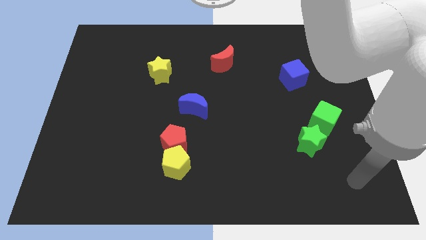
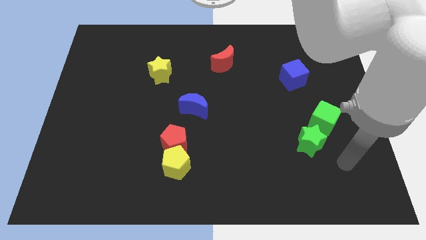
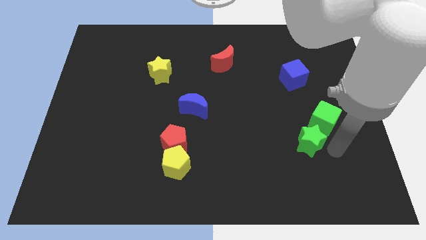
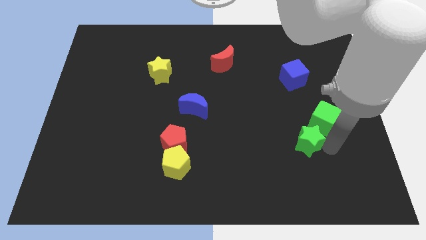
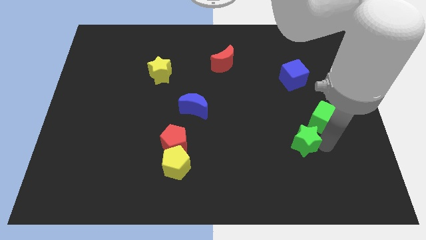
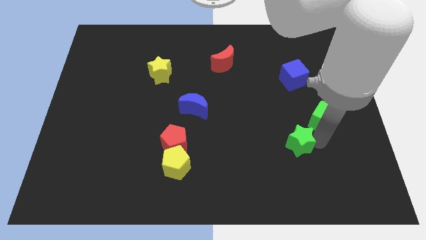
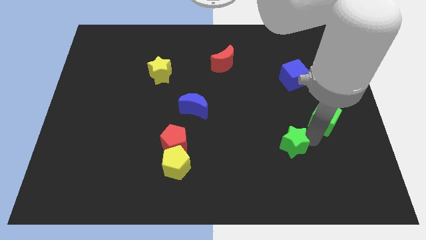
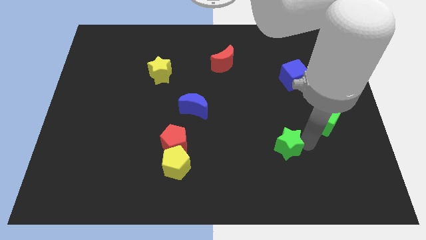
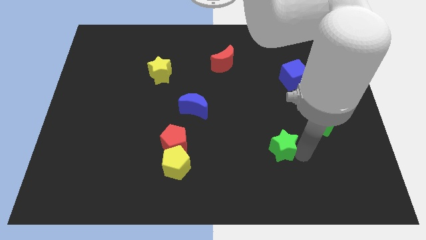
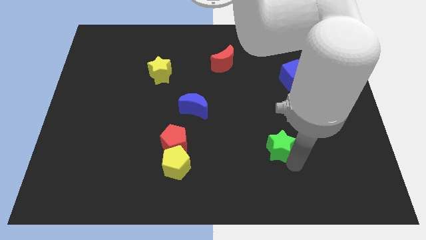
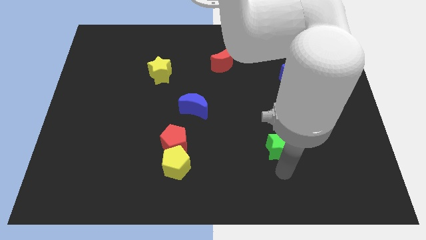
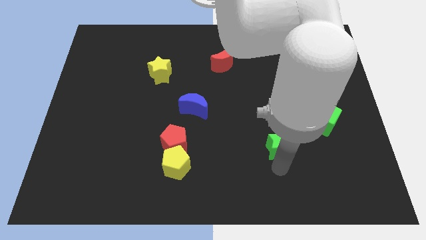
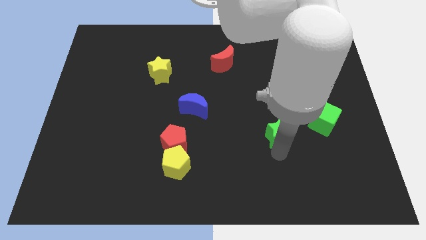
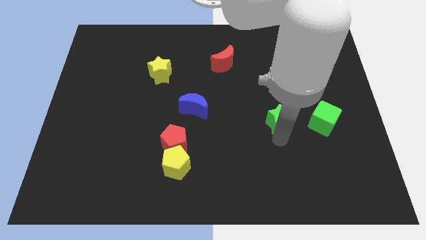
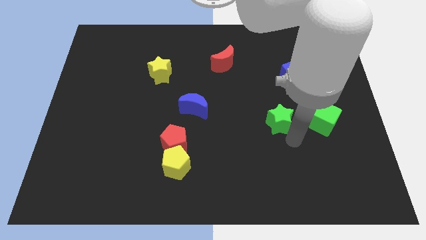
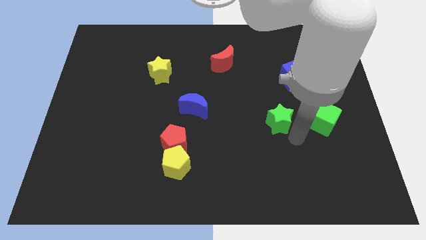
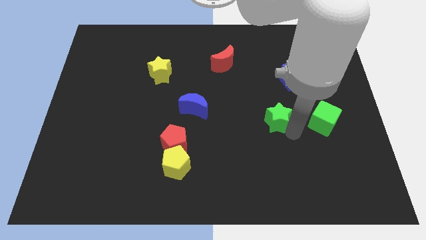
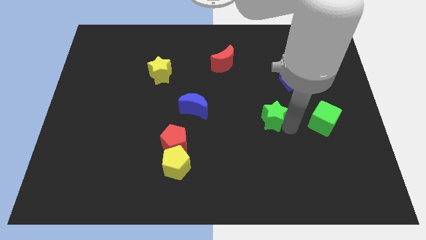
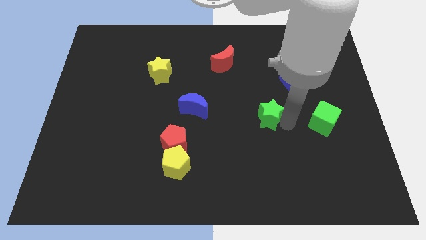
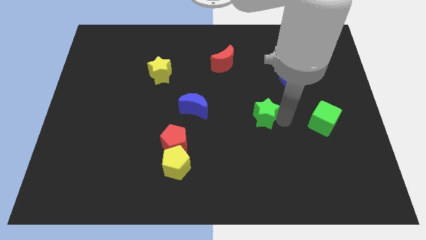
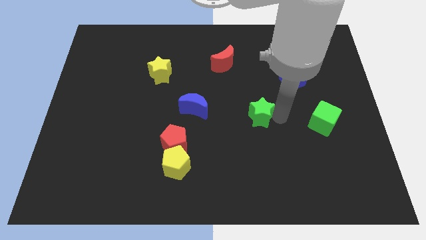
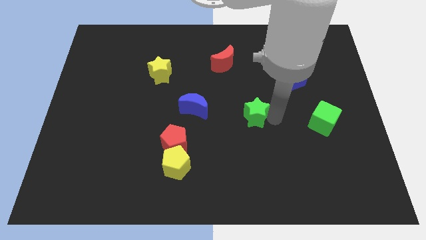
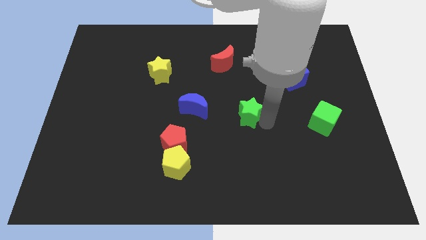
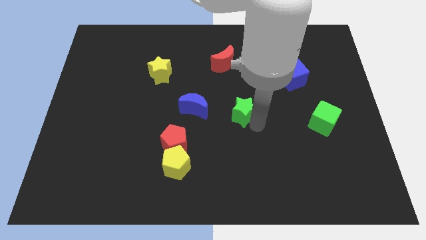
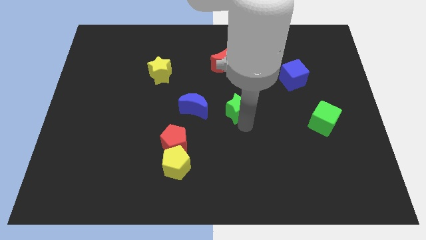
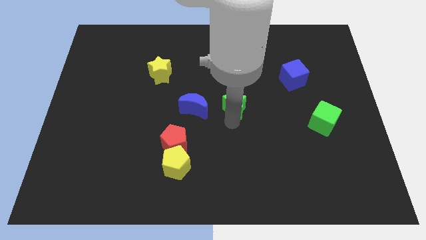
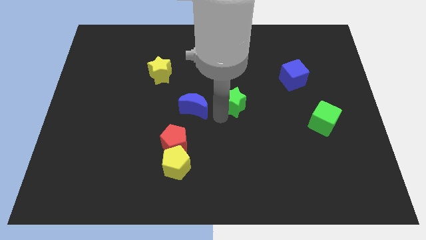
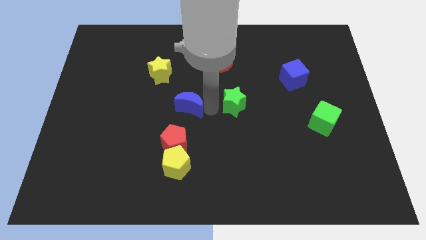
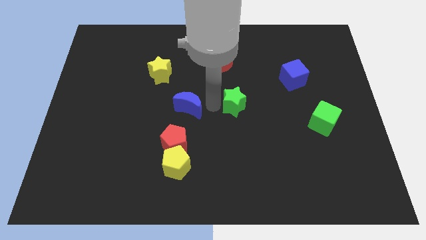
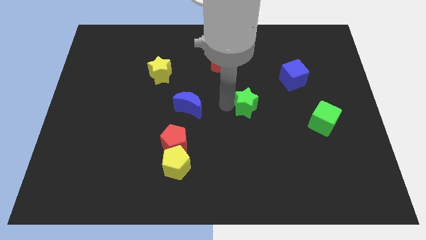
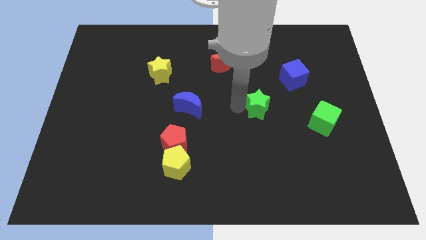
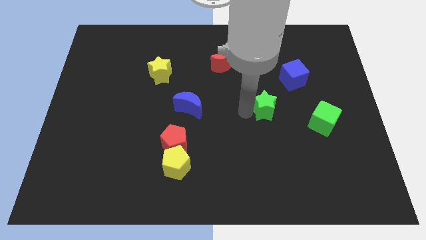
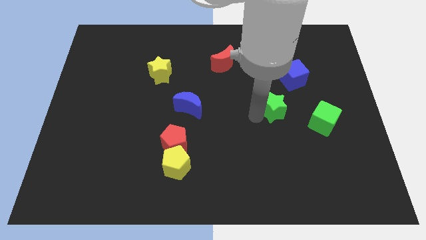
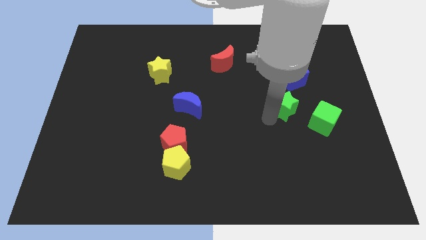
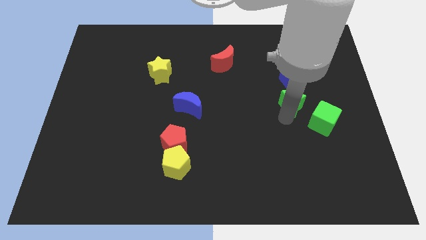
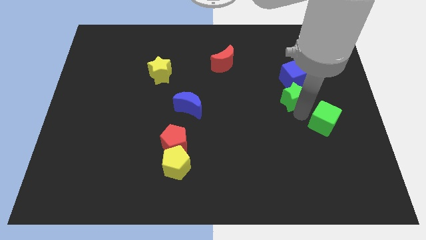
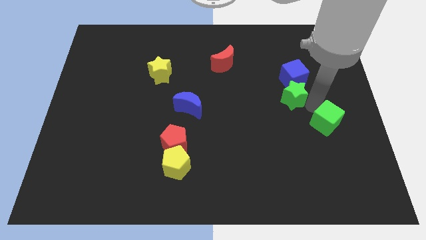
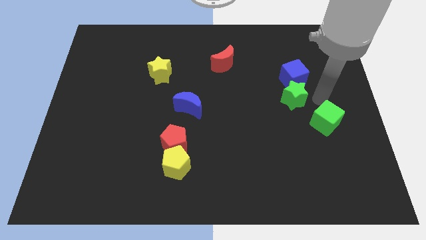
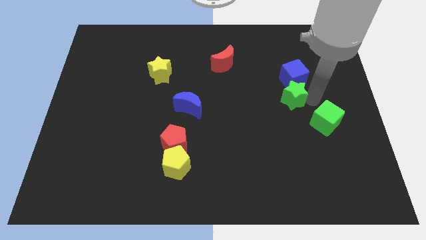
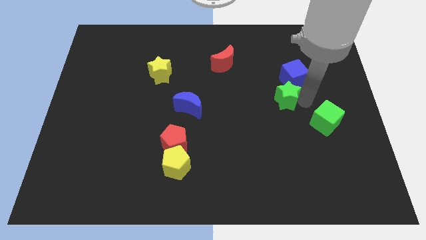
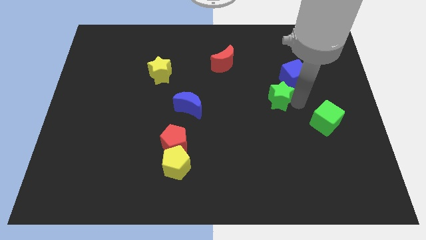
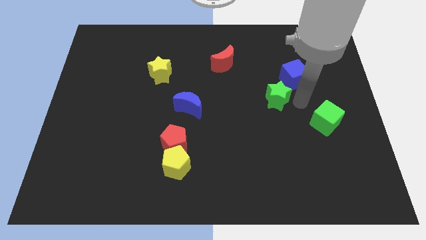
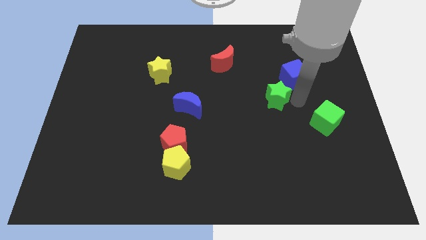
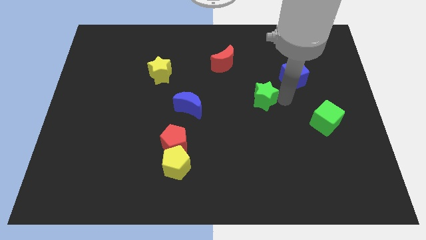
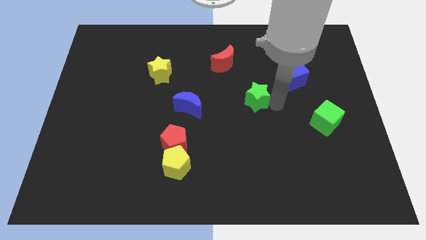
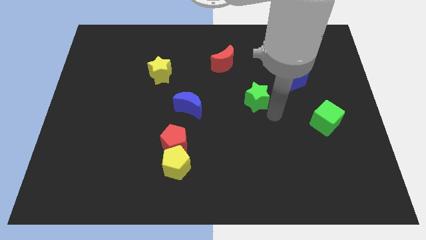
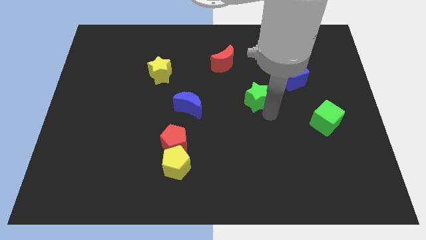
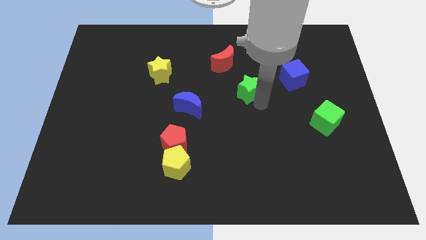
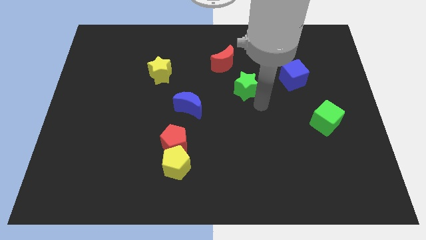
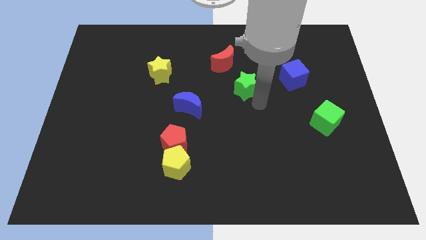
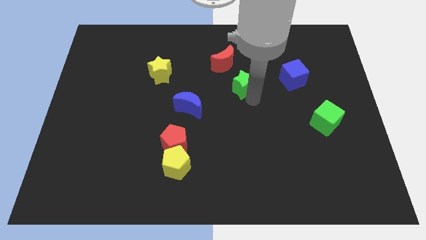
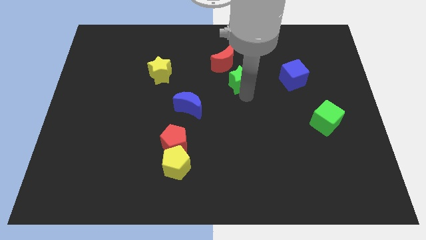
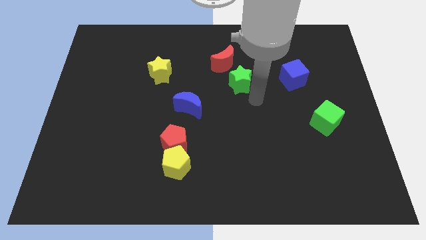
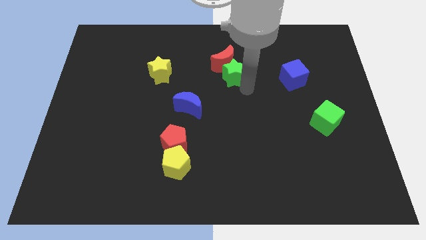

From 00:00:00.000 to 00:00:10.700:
push the green star to the red moon

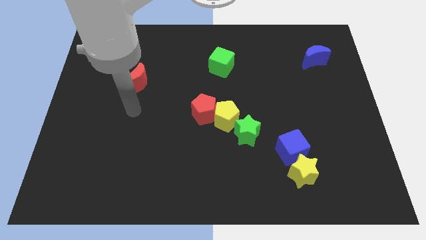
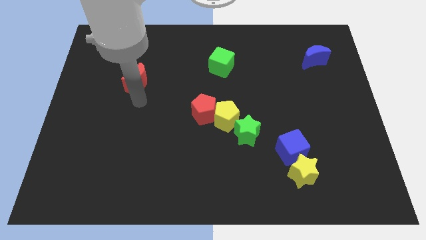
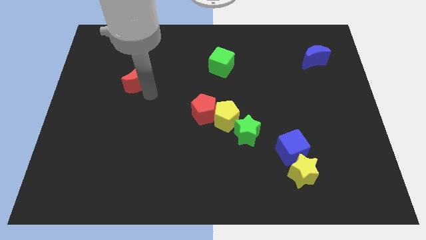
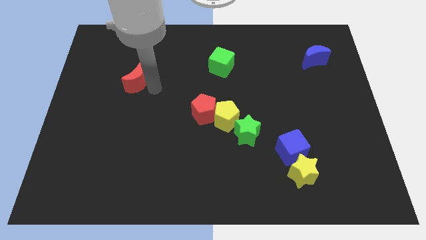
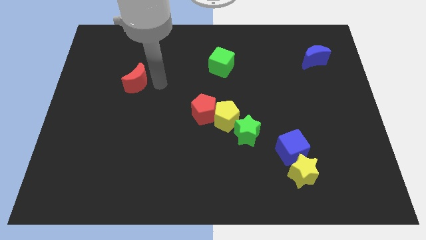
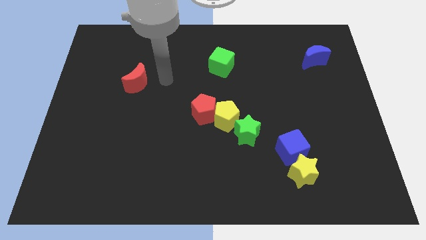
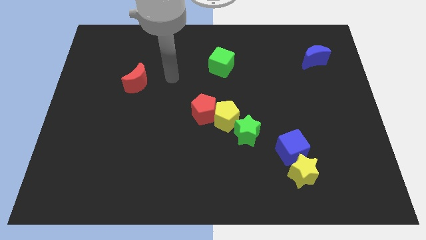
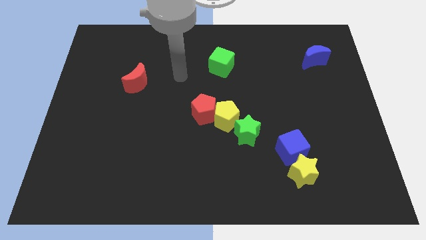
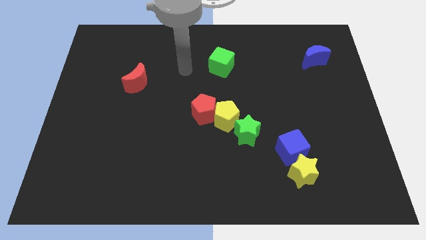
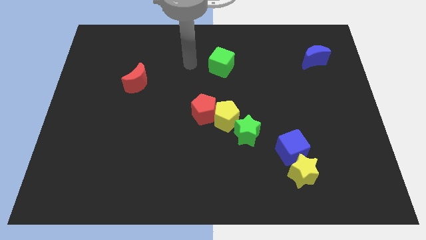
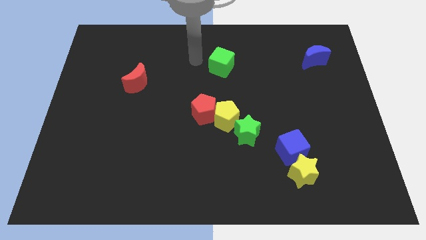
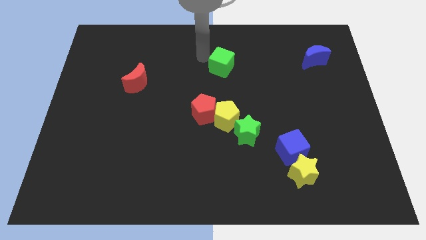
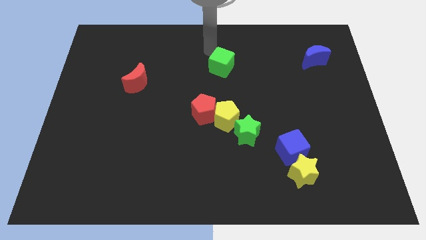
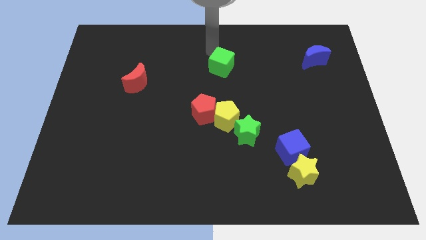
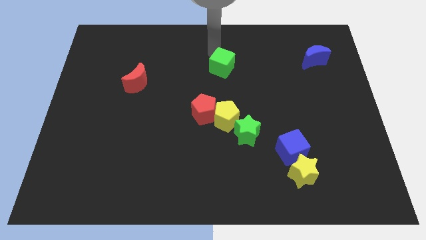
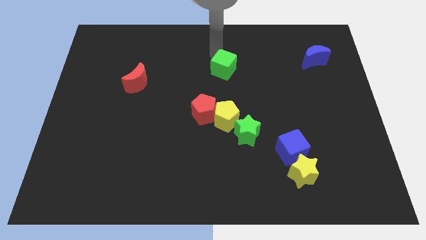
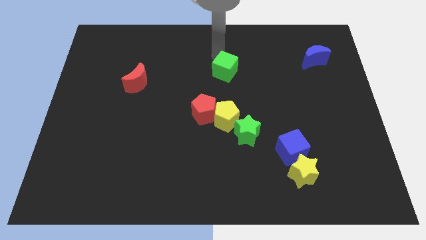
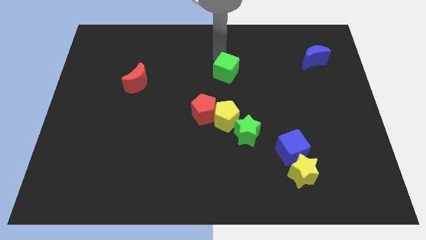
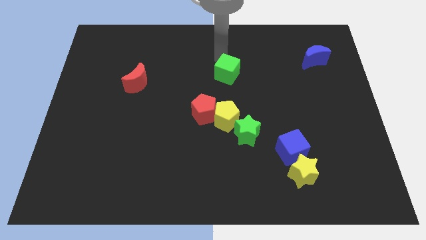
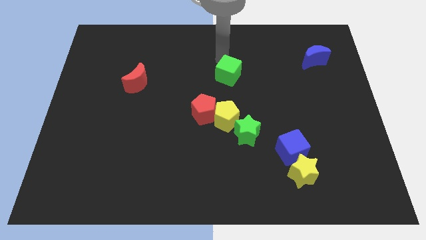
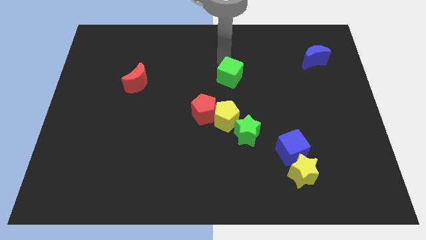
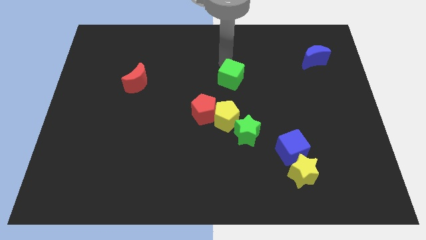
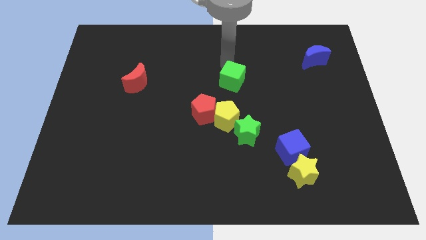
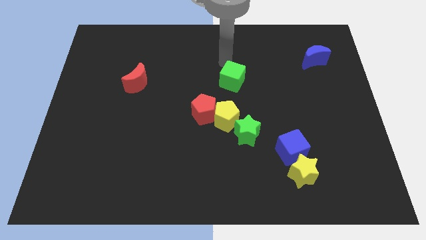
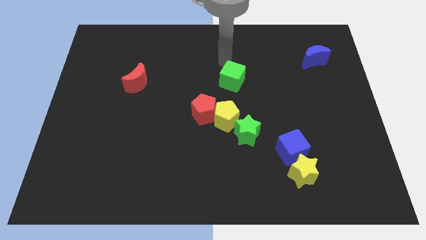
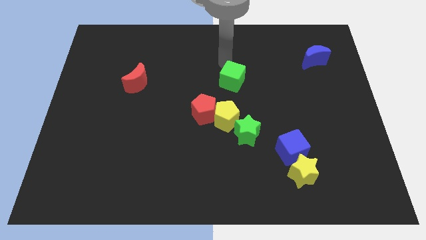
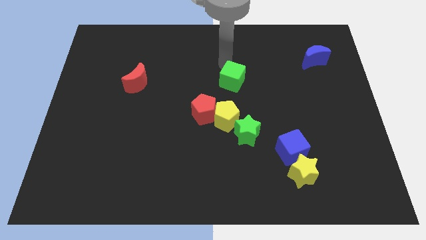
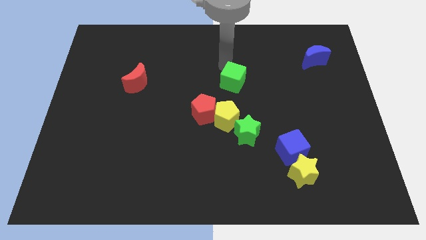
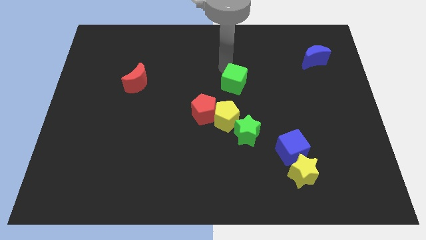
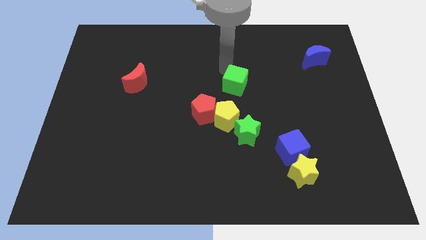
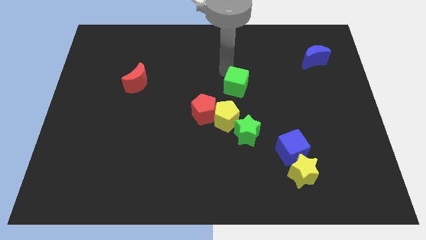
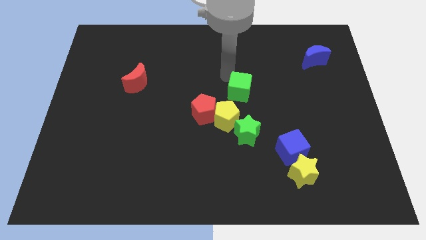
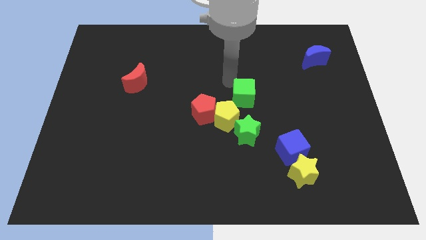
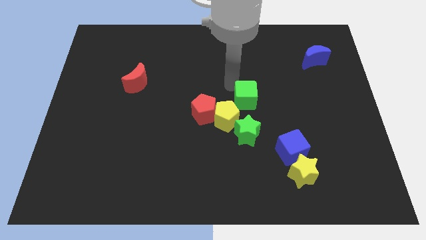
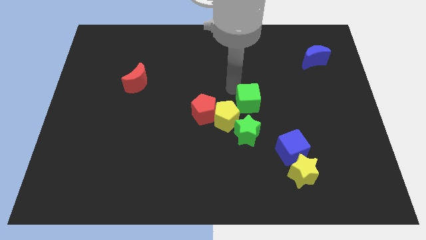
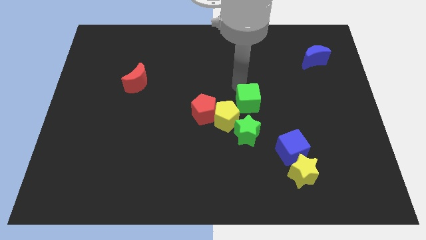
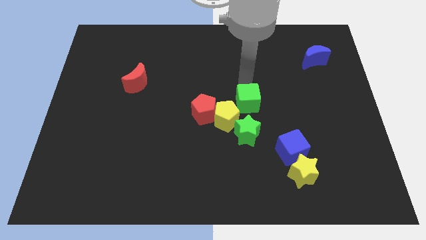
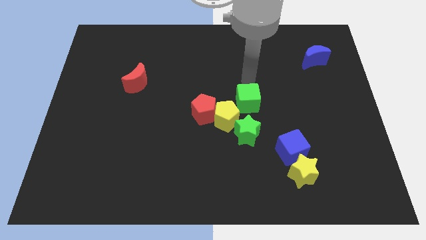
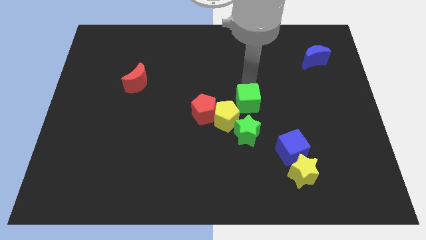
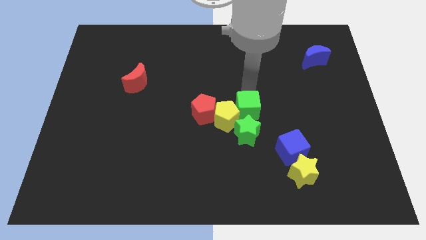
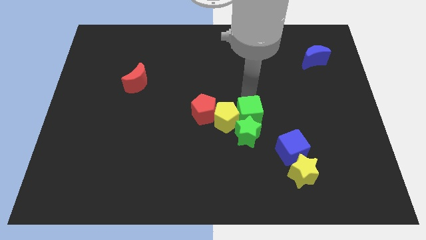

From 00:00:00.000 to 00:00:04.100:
put the green cube close to the green star
